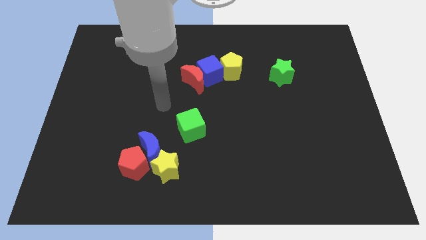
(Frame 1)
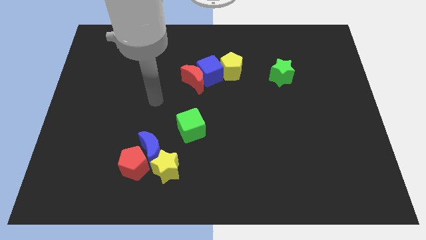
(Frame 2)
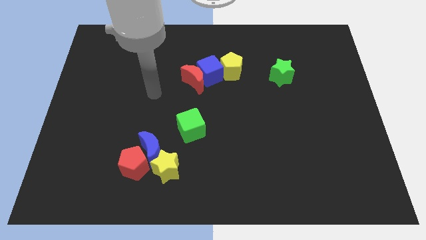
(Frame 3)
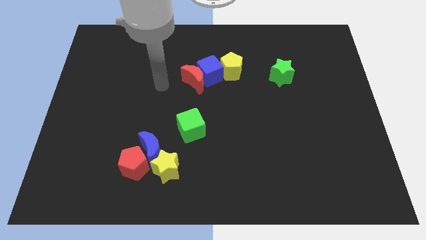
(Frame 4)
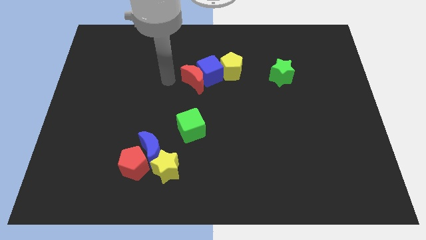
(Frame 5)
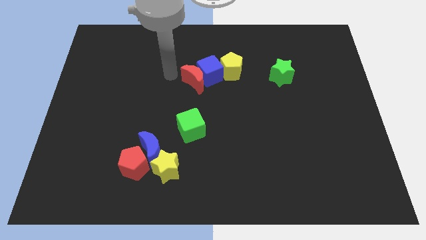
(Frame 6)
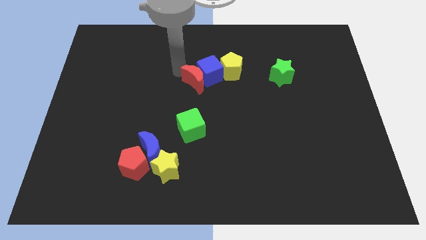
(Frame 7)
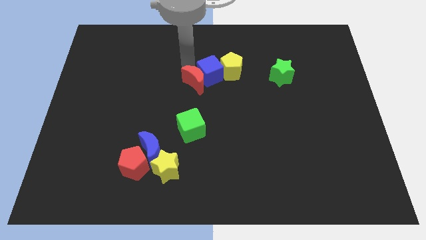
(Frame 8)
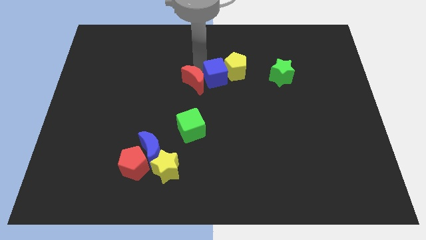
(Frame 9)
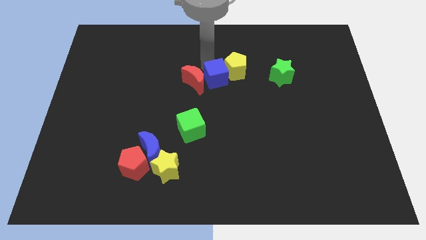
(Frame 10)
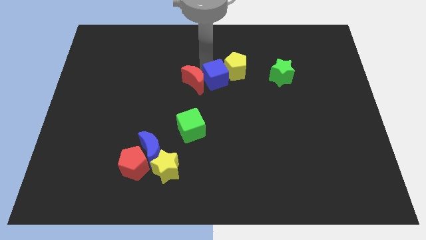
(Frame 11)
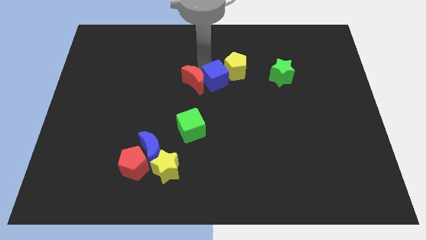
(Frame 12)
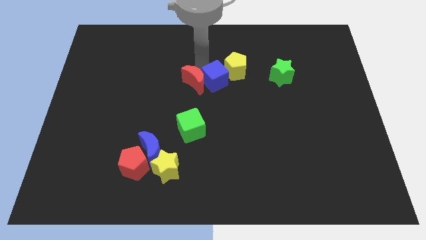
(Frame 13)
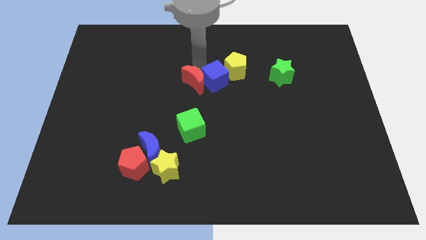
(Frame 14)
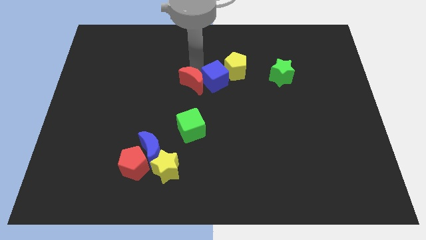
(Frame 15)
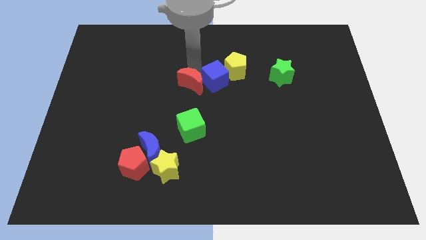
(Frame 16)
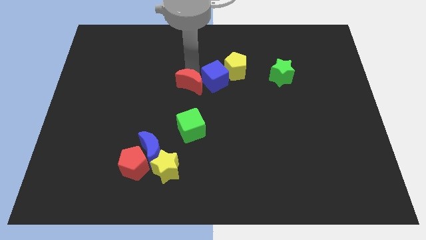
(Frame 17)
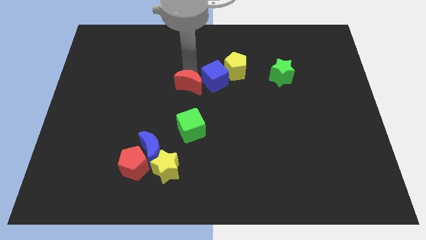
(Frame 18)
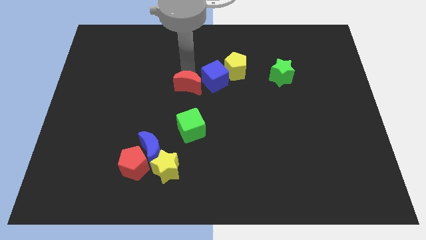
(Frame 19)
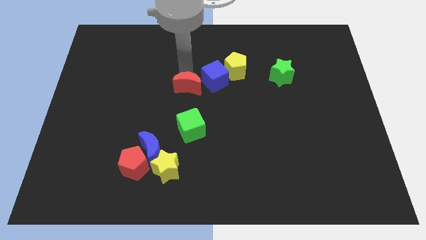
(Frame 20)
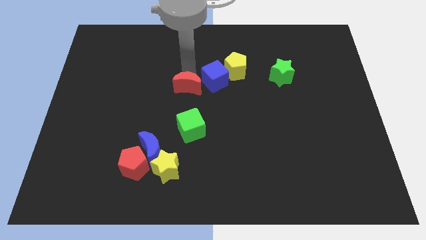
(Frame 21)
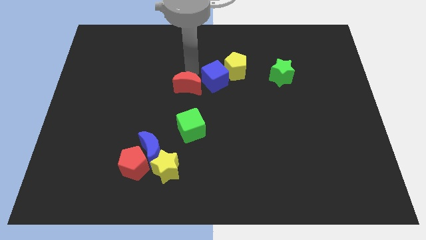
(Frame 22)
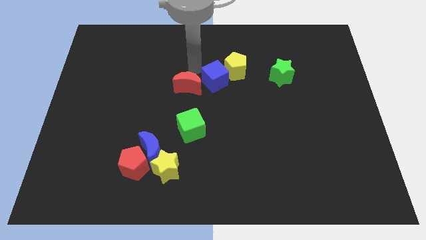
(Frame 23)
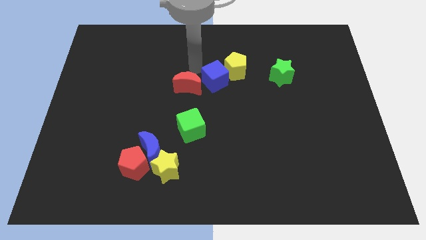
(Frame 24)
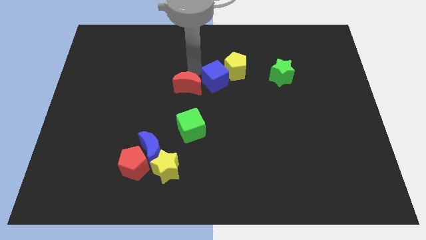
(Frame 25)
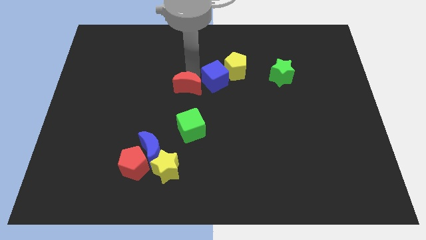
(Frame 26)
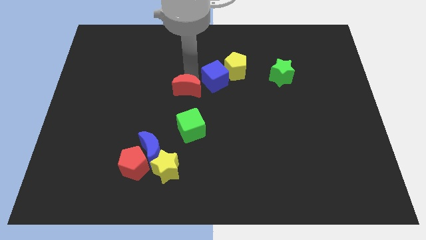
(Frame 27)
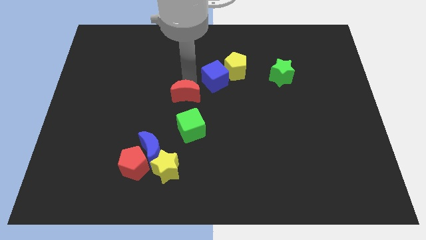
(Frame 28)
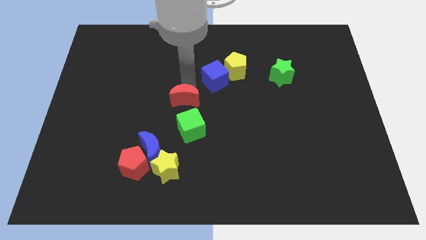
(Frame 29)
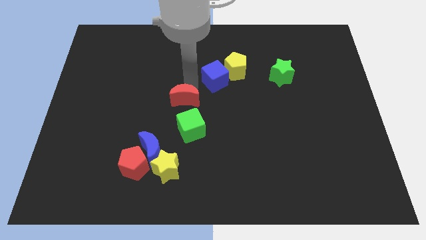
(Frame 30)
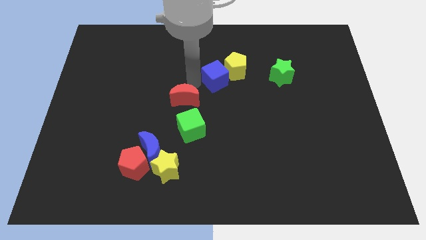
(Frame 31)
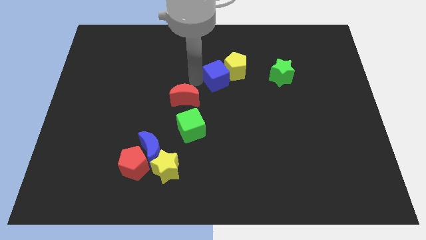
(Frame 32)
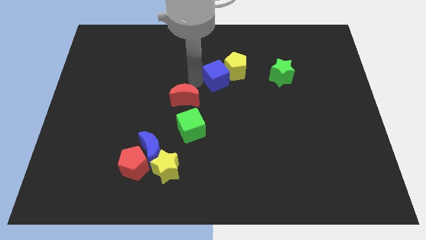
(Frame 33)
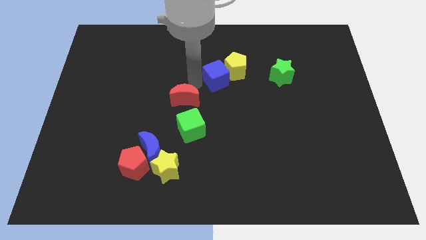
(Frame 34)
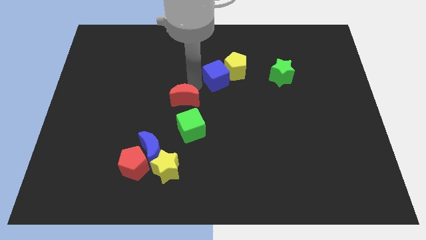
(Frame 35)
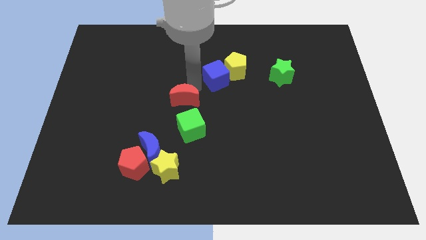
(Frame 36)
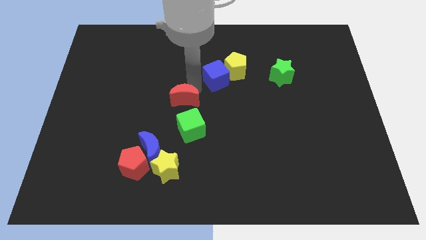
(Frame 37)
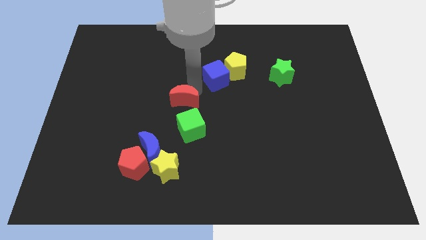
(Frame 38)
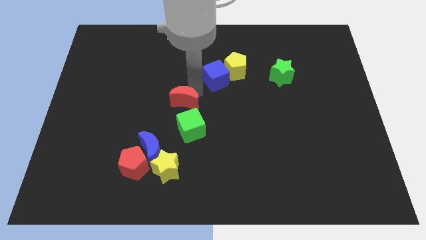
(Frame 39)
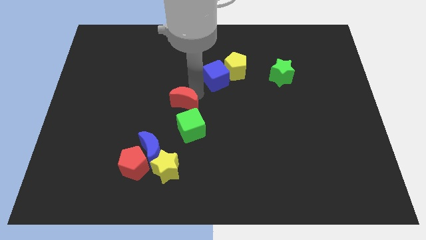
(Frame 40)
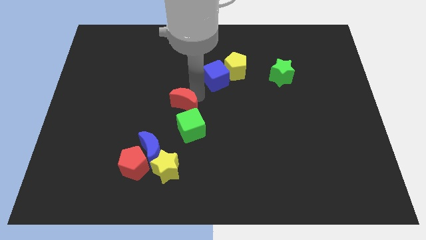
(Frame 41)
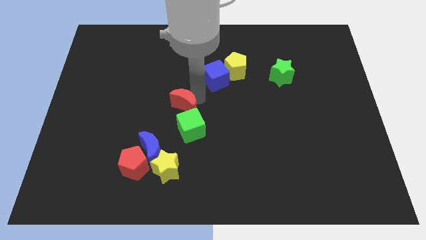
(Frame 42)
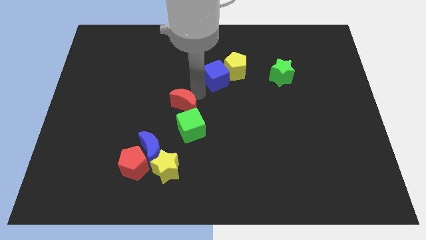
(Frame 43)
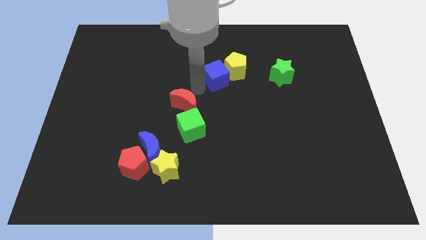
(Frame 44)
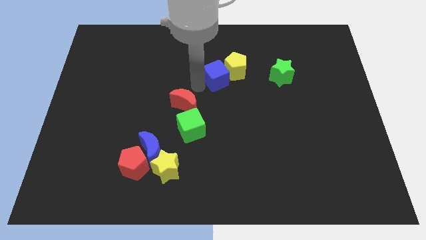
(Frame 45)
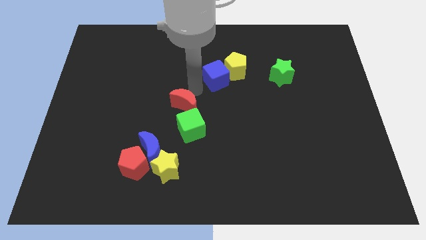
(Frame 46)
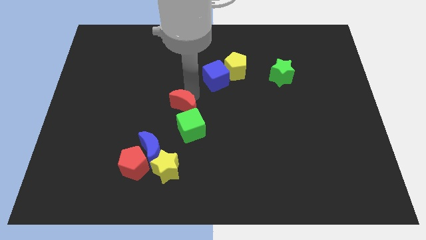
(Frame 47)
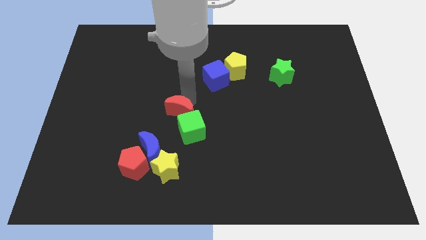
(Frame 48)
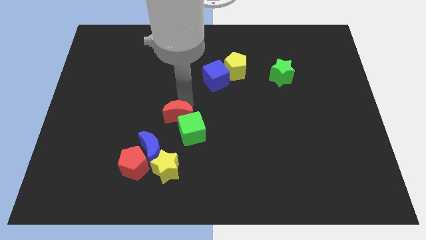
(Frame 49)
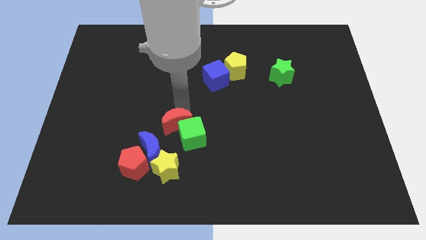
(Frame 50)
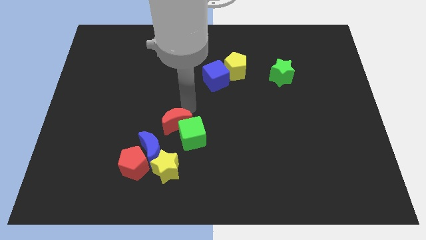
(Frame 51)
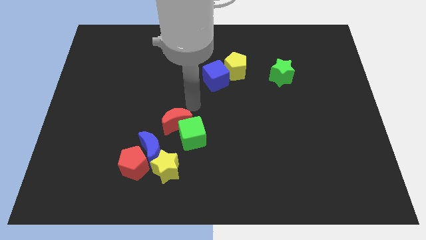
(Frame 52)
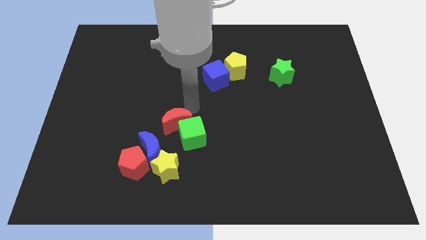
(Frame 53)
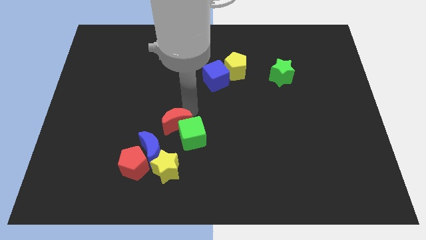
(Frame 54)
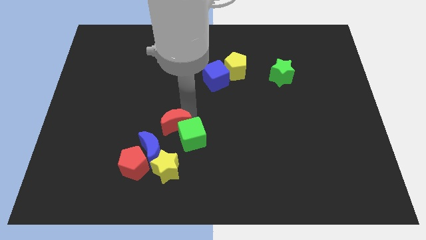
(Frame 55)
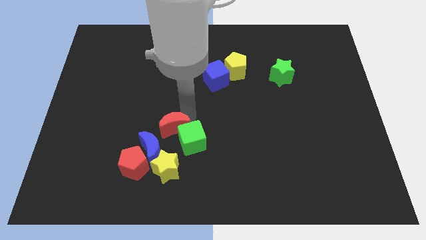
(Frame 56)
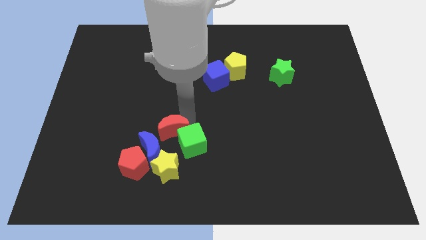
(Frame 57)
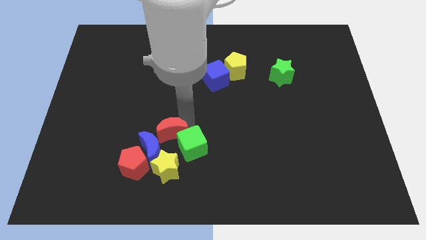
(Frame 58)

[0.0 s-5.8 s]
push the red moon close to the blue moon

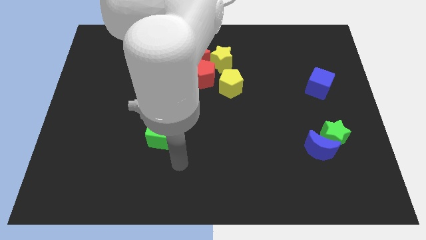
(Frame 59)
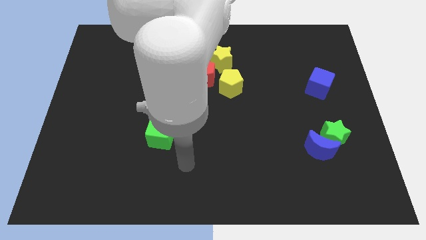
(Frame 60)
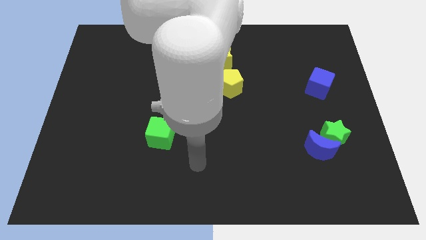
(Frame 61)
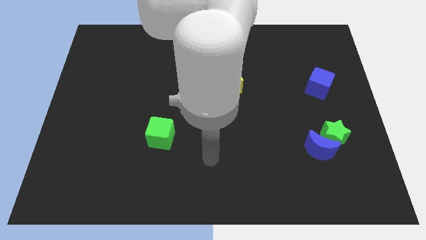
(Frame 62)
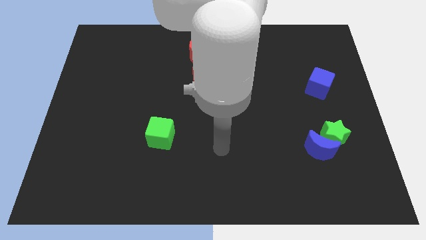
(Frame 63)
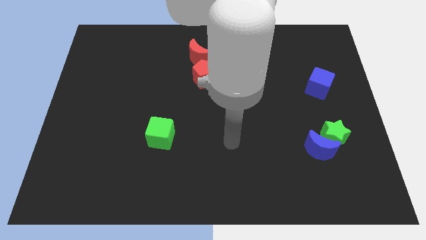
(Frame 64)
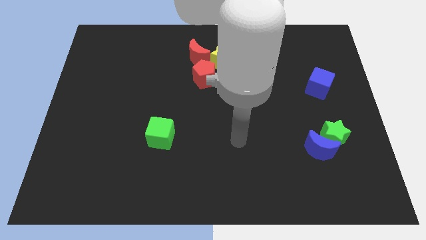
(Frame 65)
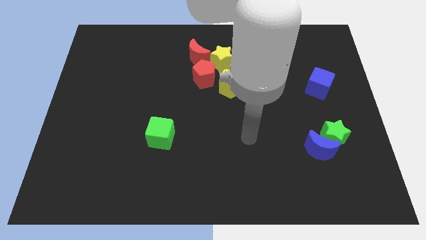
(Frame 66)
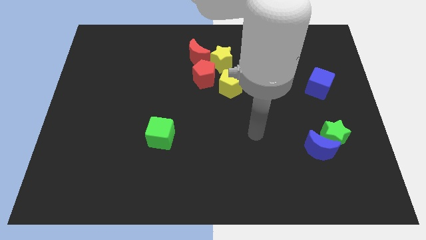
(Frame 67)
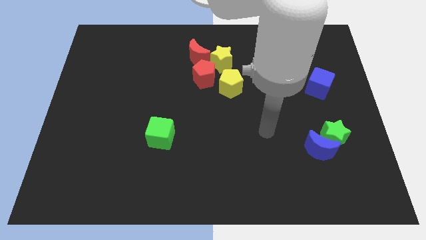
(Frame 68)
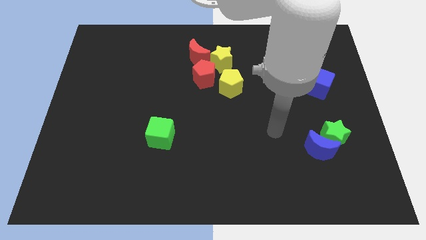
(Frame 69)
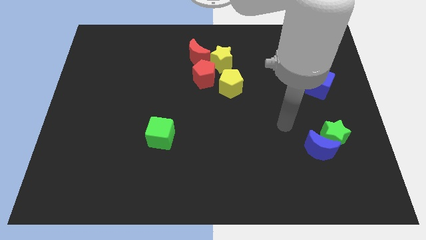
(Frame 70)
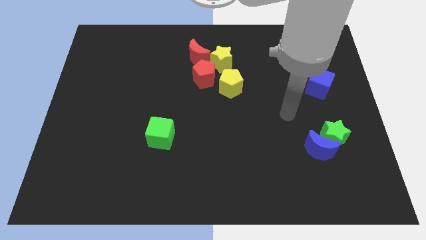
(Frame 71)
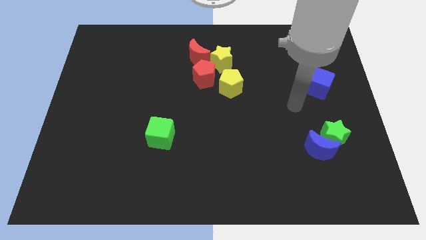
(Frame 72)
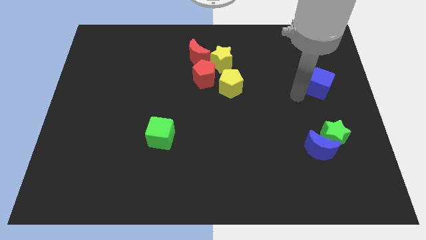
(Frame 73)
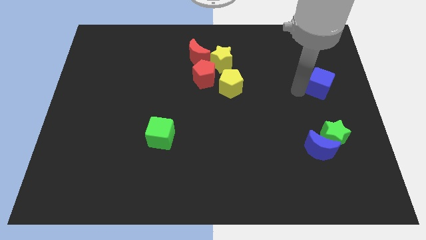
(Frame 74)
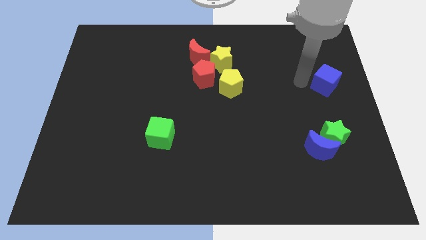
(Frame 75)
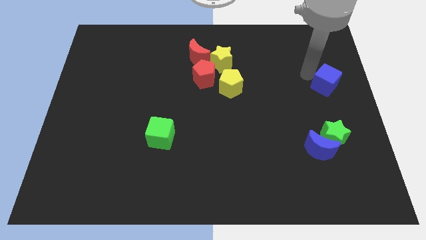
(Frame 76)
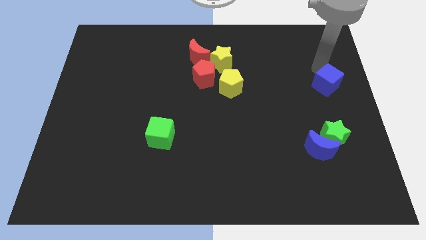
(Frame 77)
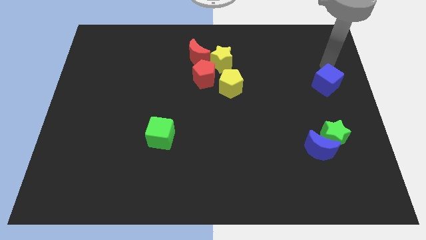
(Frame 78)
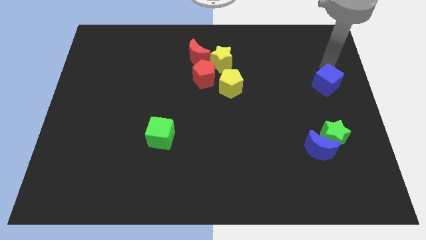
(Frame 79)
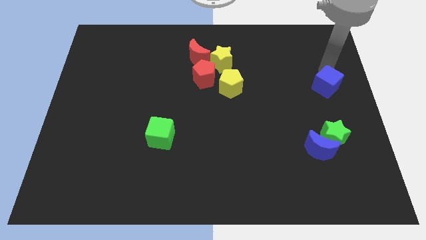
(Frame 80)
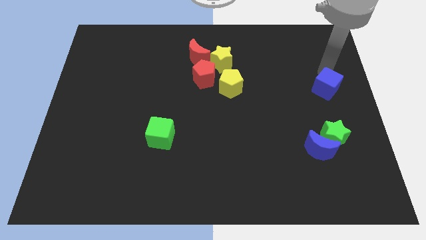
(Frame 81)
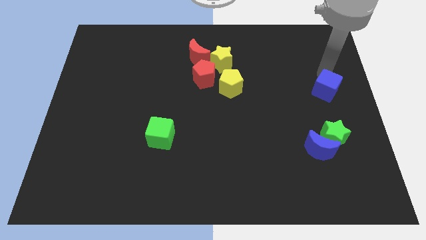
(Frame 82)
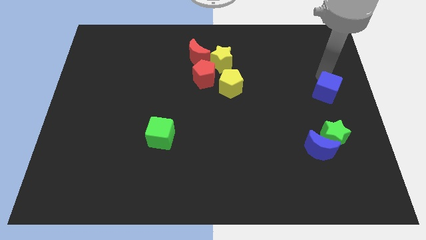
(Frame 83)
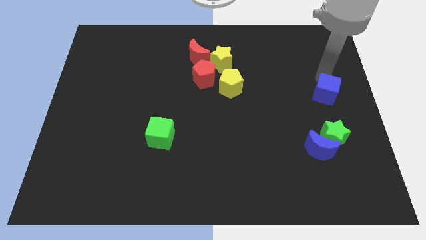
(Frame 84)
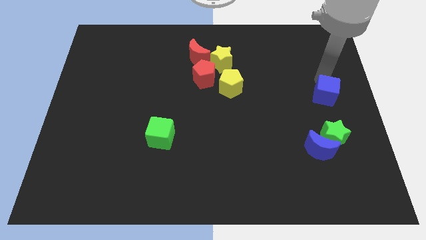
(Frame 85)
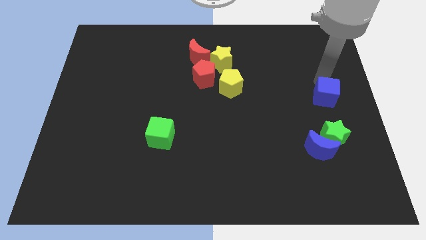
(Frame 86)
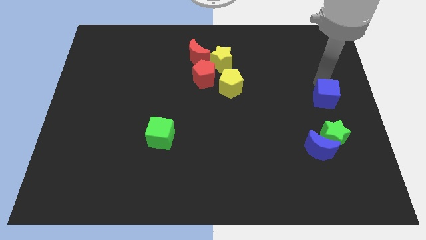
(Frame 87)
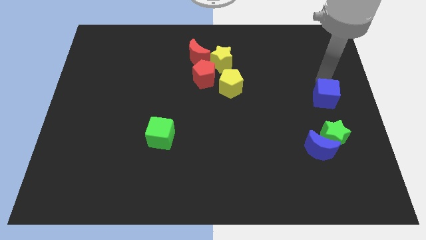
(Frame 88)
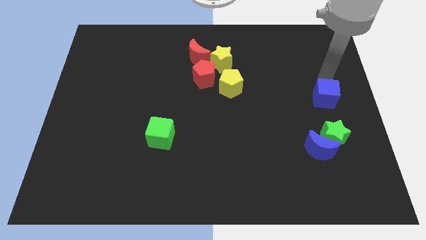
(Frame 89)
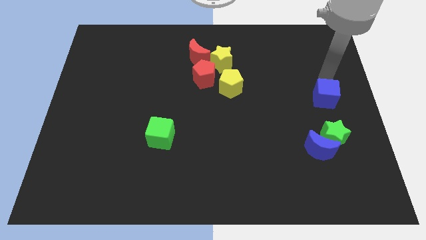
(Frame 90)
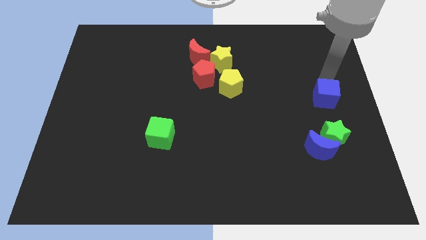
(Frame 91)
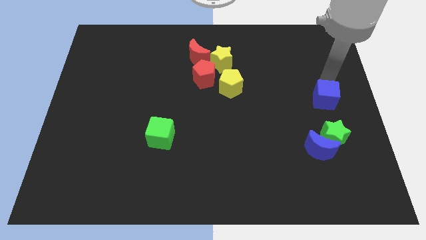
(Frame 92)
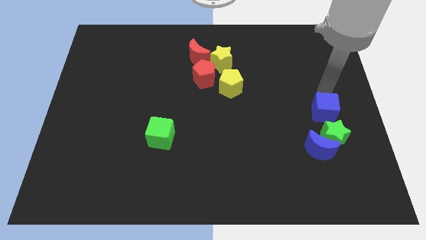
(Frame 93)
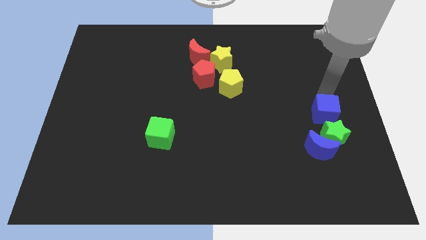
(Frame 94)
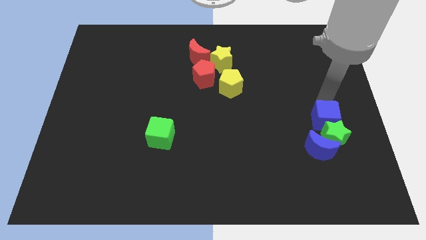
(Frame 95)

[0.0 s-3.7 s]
slide the blue cube next to the green star
